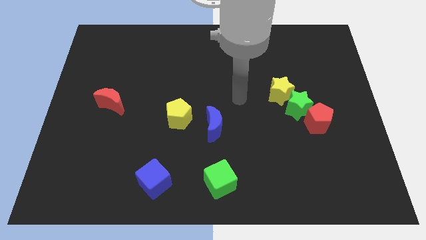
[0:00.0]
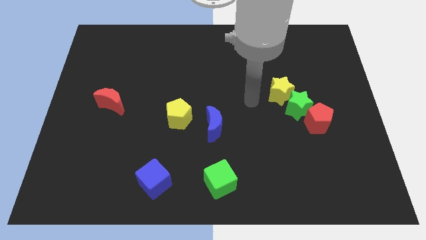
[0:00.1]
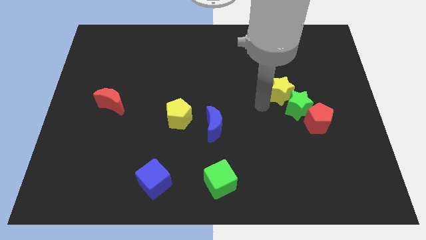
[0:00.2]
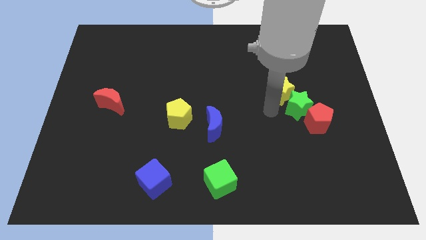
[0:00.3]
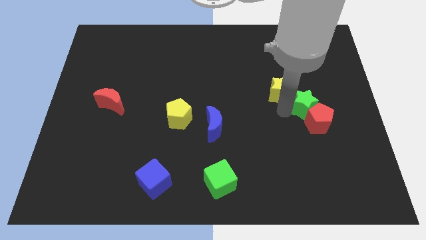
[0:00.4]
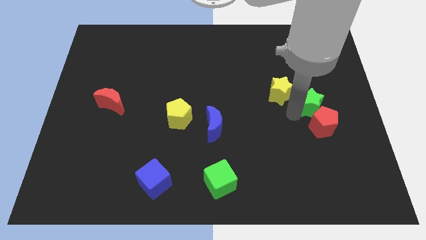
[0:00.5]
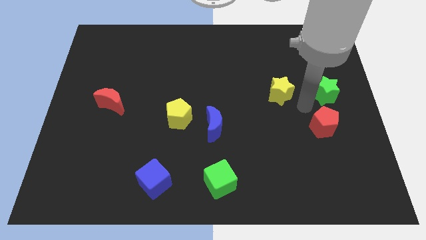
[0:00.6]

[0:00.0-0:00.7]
separate the yellow star from the green star

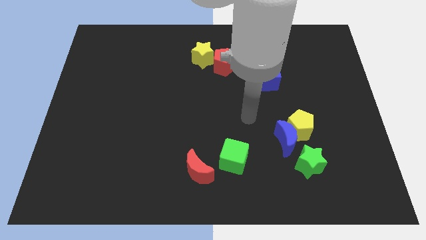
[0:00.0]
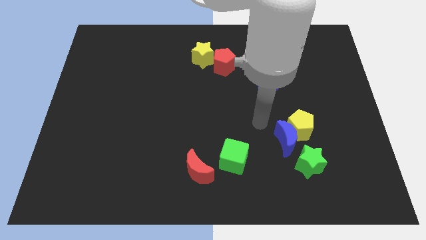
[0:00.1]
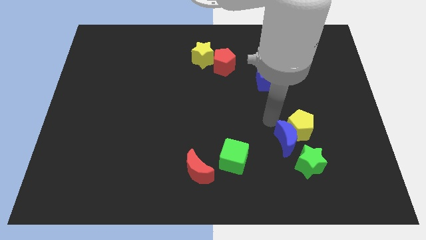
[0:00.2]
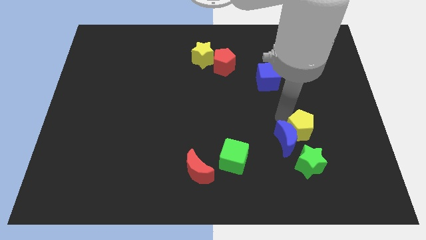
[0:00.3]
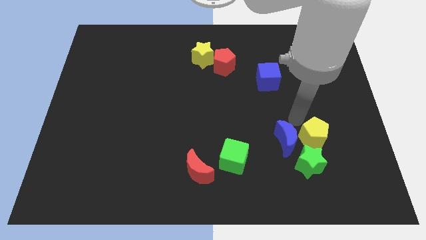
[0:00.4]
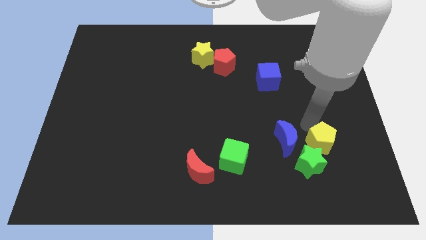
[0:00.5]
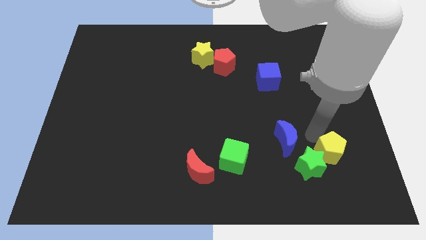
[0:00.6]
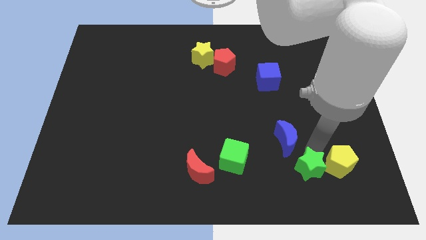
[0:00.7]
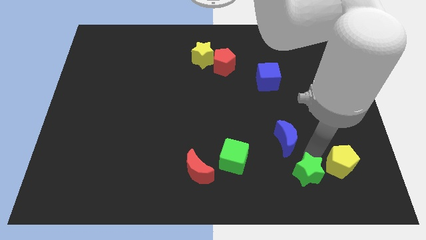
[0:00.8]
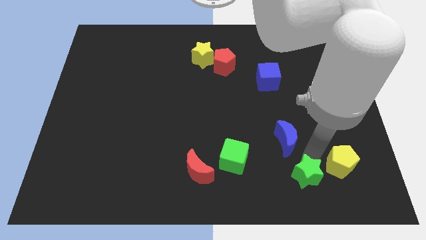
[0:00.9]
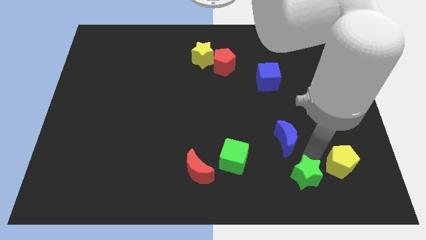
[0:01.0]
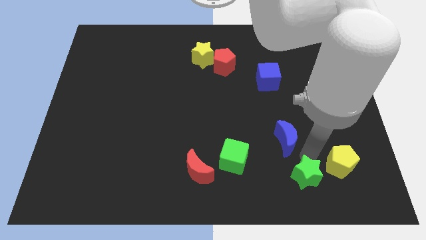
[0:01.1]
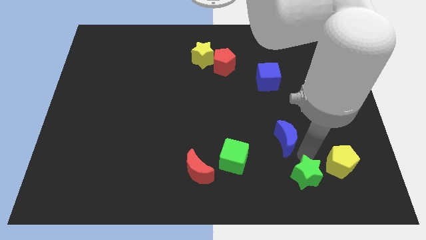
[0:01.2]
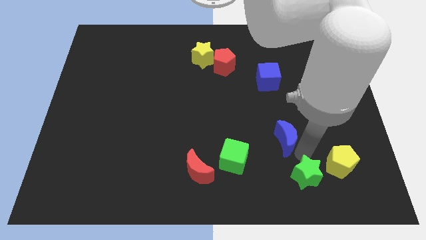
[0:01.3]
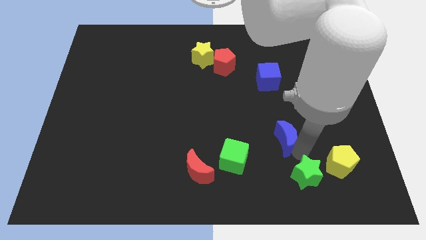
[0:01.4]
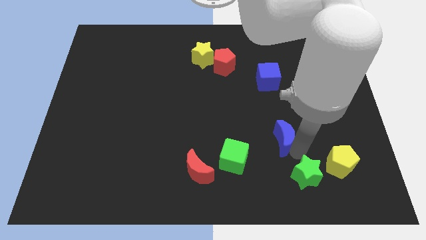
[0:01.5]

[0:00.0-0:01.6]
separate the blue moon from the yellow pentagon and green star

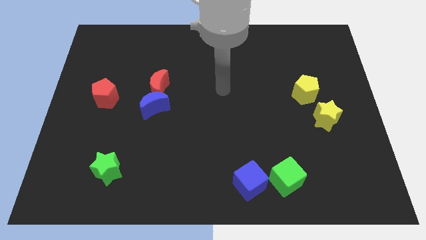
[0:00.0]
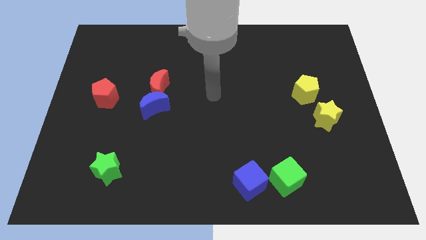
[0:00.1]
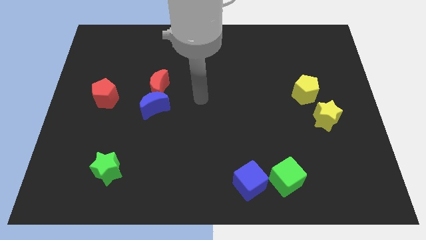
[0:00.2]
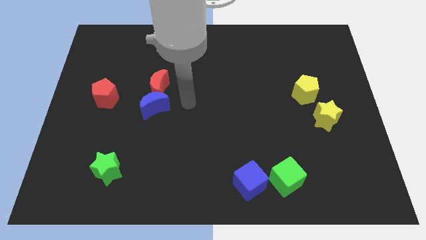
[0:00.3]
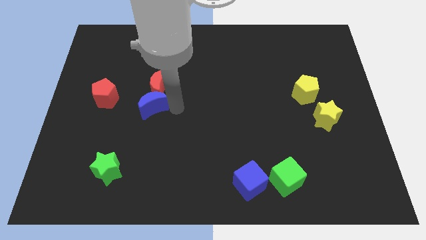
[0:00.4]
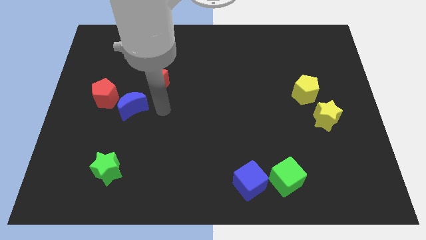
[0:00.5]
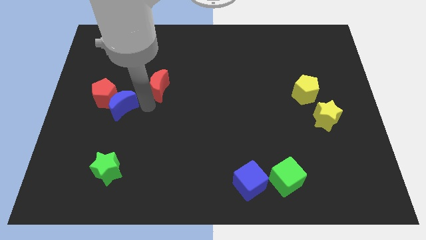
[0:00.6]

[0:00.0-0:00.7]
pull the red moon apart from the blue moon

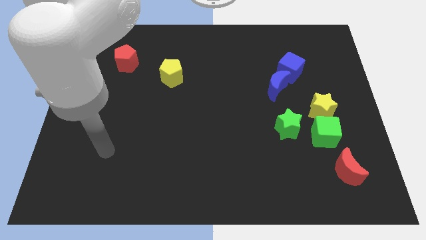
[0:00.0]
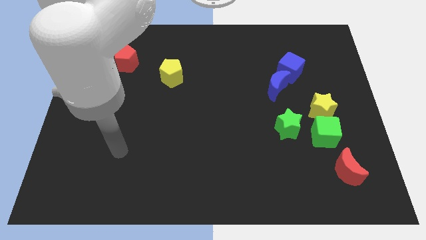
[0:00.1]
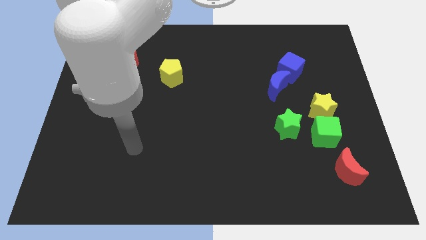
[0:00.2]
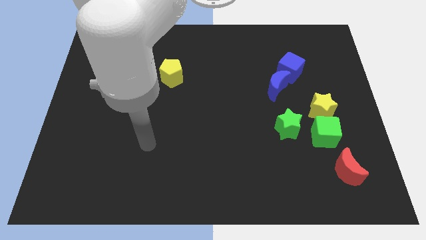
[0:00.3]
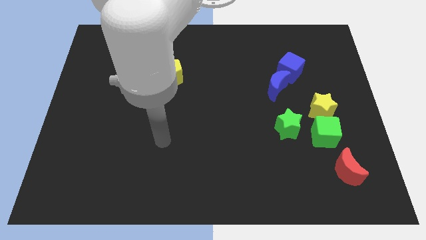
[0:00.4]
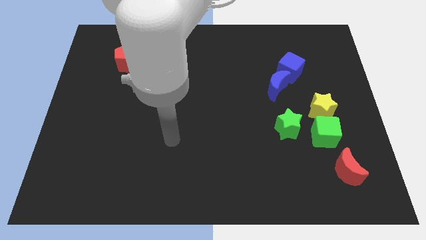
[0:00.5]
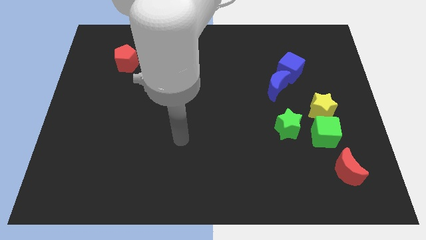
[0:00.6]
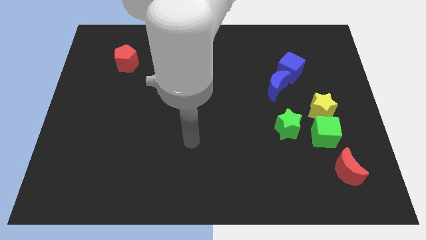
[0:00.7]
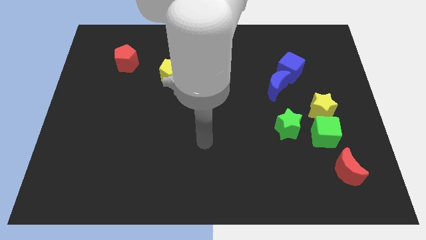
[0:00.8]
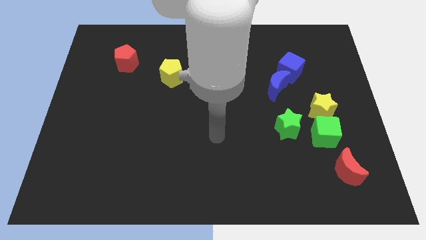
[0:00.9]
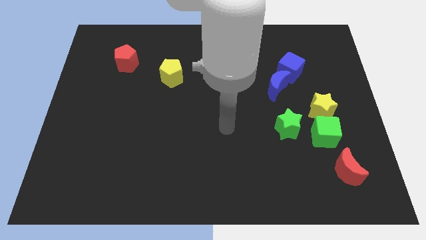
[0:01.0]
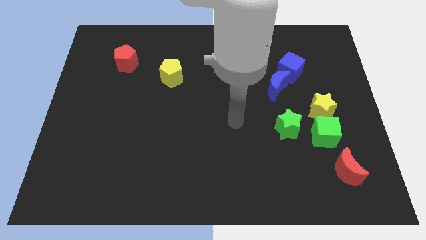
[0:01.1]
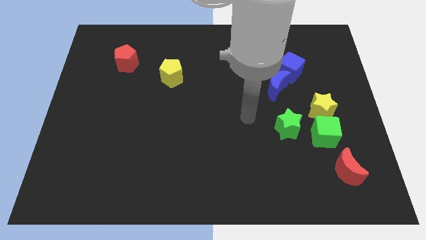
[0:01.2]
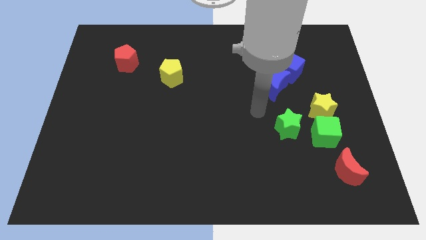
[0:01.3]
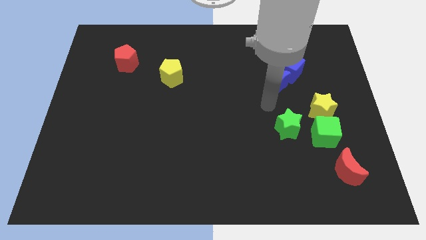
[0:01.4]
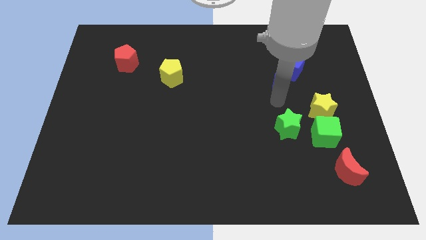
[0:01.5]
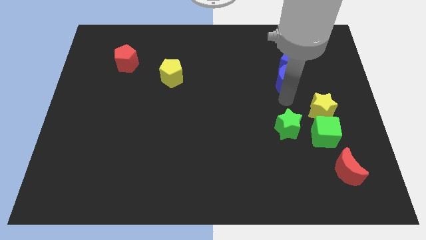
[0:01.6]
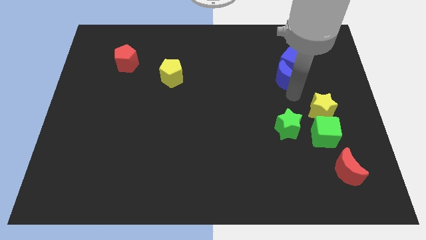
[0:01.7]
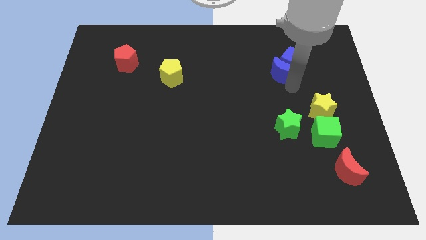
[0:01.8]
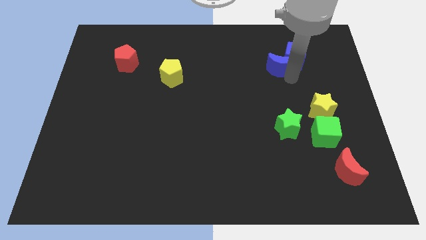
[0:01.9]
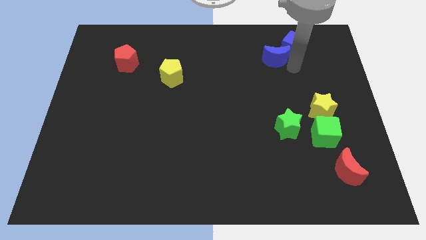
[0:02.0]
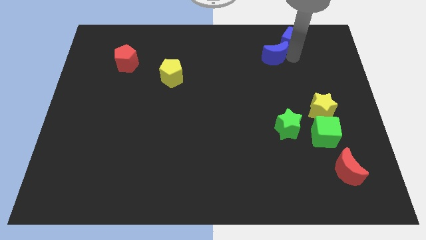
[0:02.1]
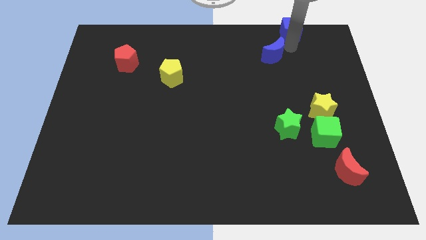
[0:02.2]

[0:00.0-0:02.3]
move the blue moon away from the blue cube

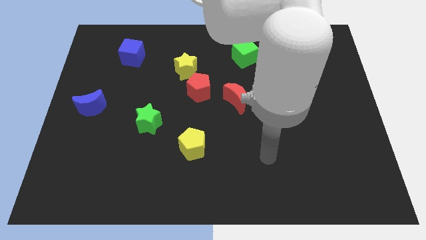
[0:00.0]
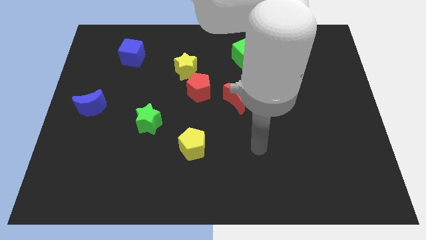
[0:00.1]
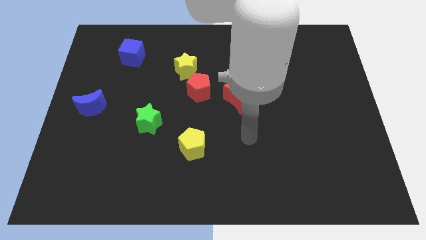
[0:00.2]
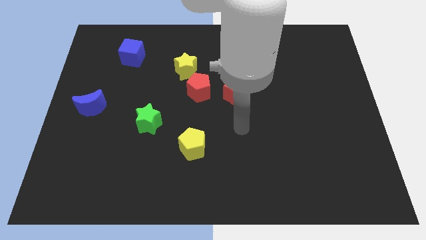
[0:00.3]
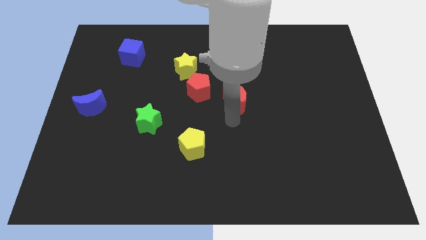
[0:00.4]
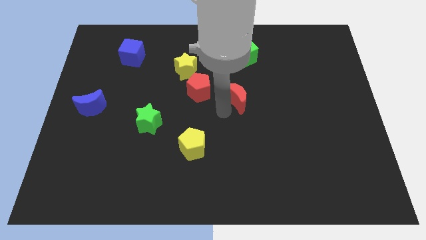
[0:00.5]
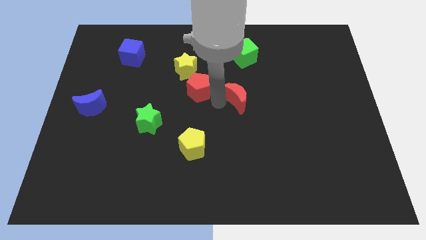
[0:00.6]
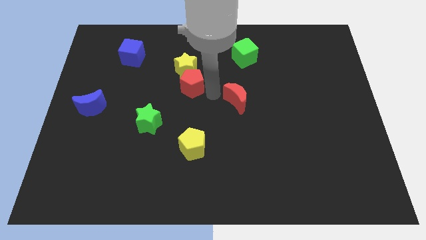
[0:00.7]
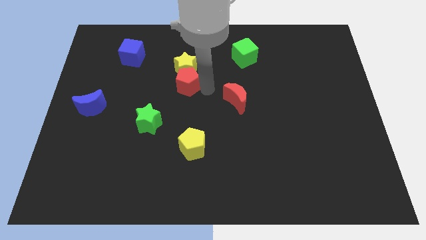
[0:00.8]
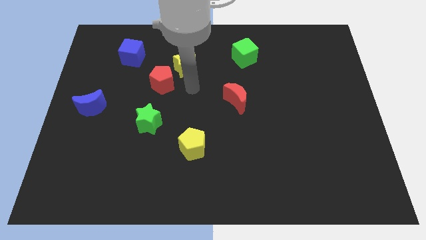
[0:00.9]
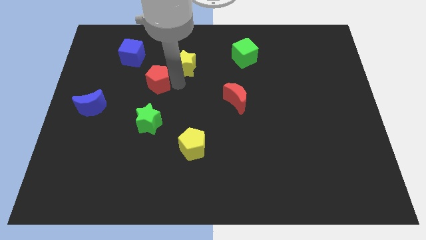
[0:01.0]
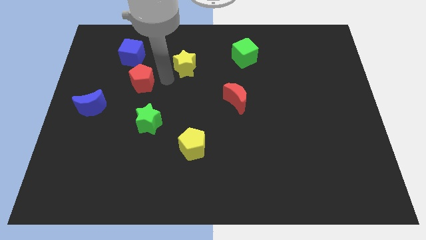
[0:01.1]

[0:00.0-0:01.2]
separate the yellow star from the red pentagon

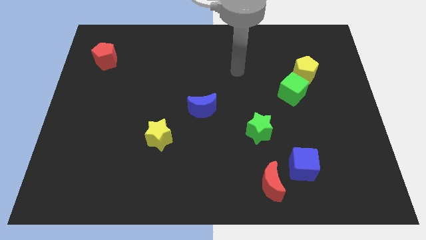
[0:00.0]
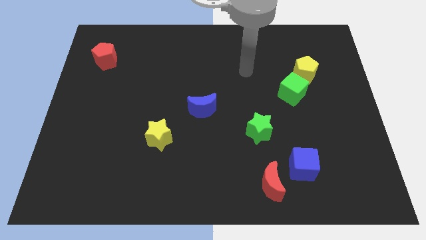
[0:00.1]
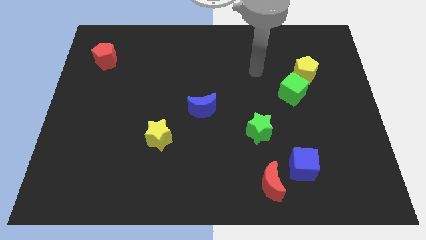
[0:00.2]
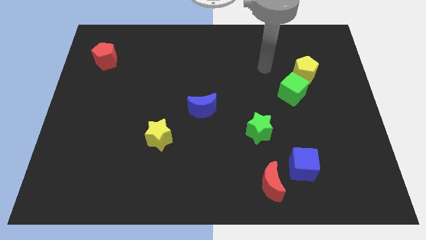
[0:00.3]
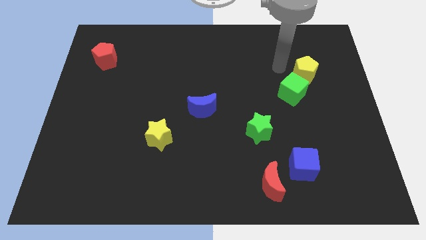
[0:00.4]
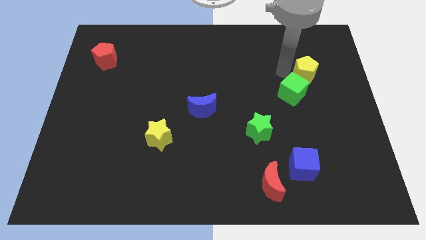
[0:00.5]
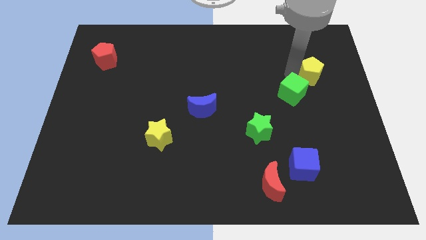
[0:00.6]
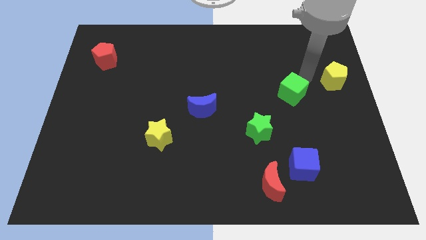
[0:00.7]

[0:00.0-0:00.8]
pull the green cube apart from the yellow pentagon

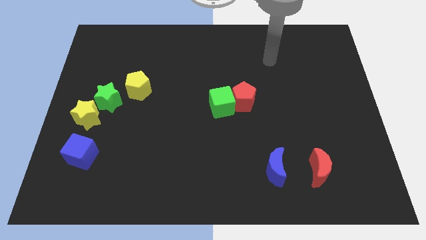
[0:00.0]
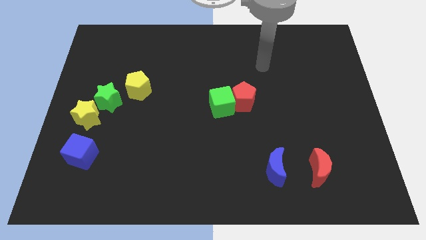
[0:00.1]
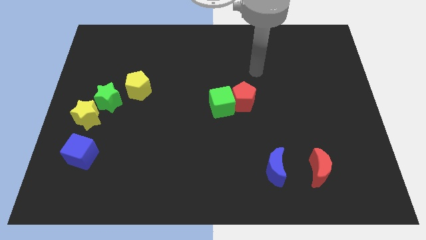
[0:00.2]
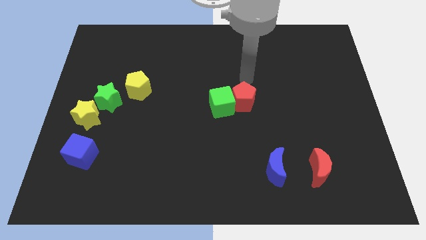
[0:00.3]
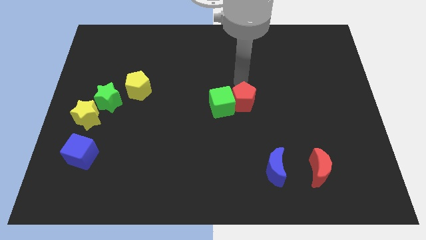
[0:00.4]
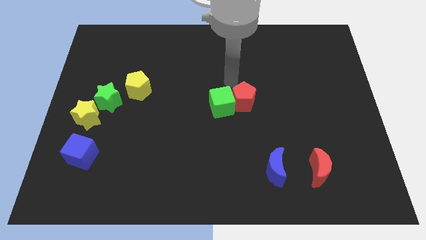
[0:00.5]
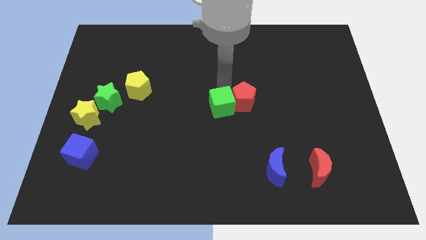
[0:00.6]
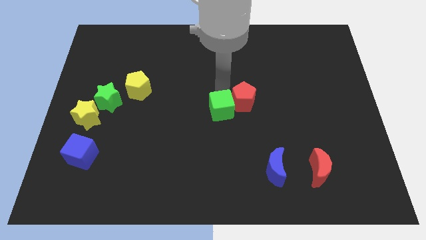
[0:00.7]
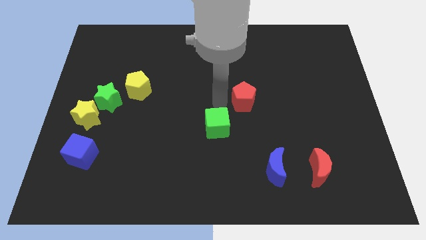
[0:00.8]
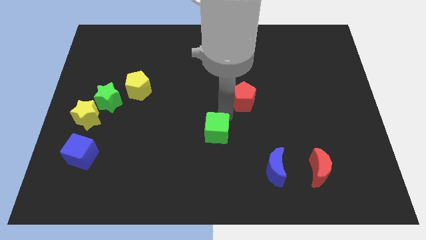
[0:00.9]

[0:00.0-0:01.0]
pull the red pentagon apart from the green cube

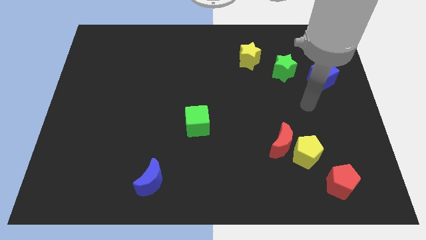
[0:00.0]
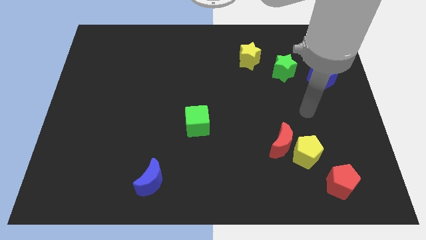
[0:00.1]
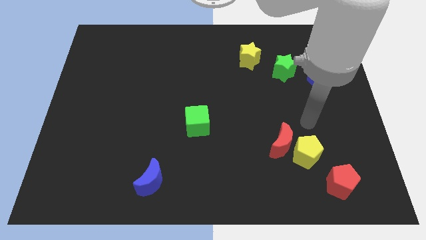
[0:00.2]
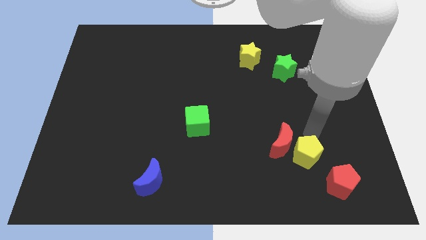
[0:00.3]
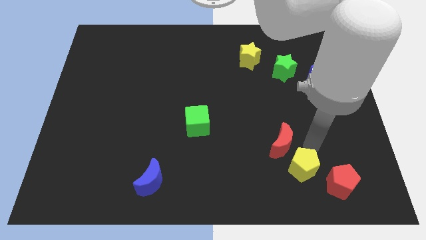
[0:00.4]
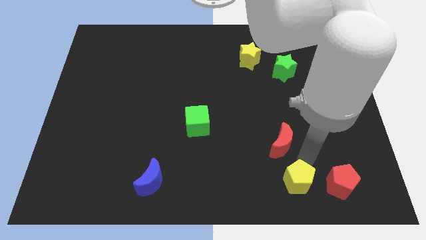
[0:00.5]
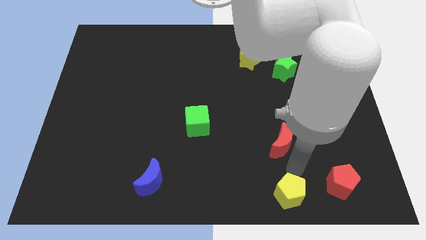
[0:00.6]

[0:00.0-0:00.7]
move the red moon away from the yellow pentagon

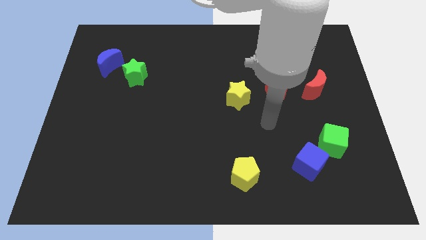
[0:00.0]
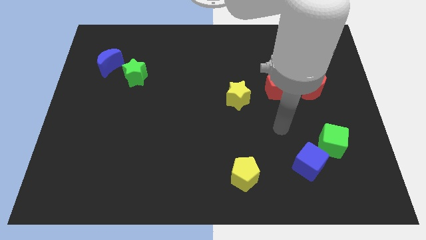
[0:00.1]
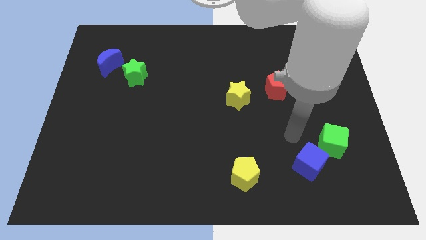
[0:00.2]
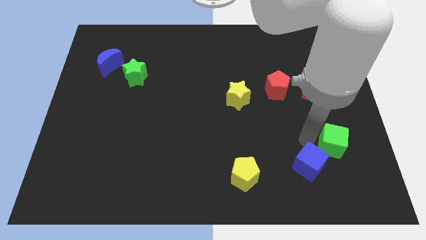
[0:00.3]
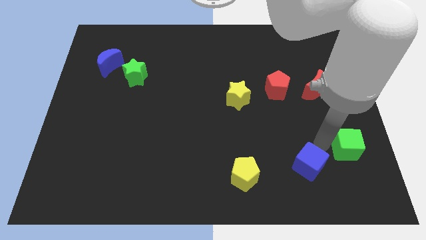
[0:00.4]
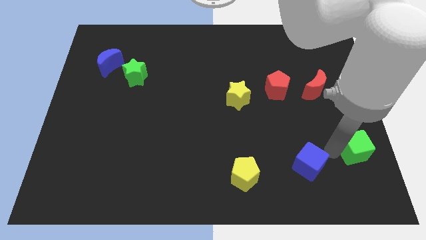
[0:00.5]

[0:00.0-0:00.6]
separate the blue cube from the green cube
